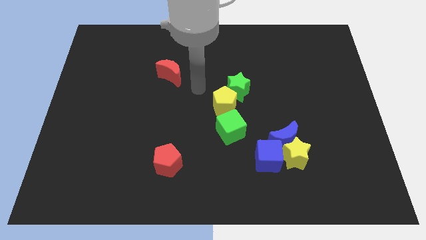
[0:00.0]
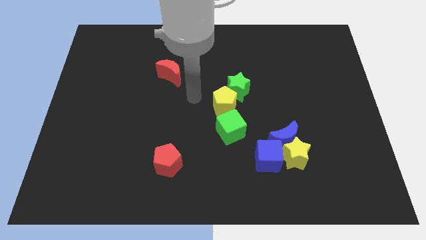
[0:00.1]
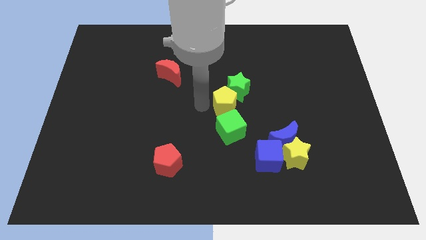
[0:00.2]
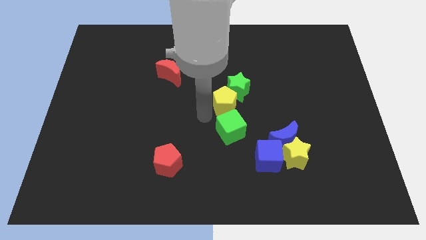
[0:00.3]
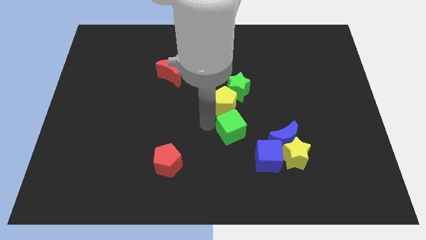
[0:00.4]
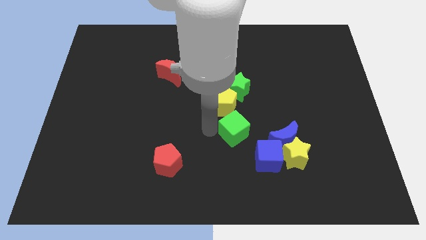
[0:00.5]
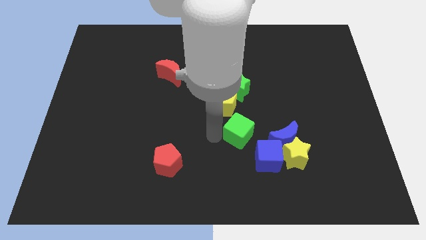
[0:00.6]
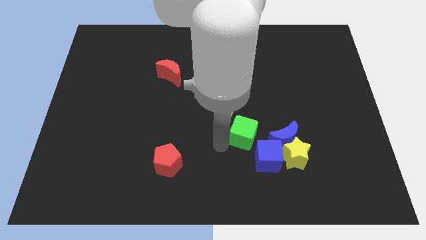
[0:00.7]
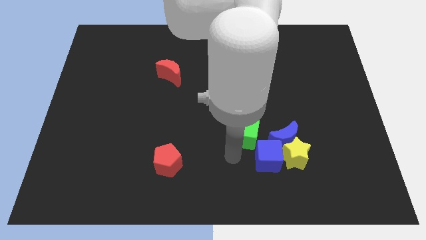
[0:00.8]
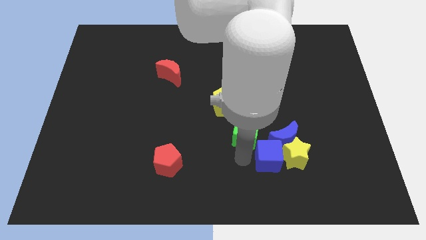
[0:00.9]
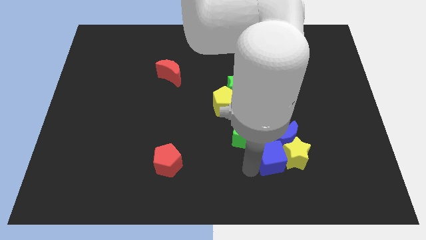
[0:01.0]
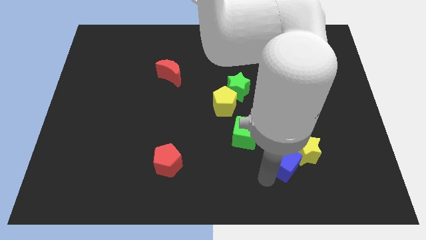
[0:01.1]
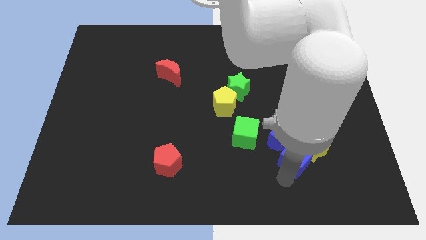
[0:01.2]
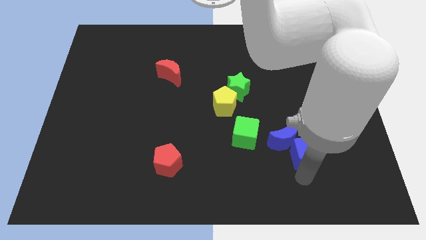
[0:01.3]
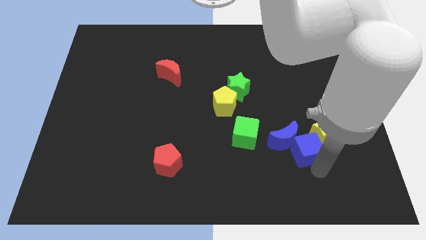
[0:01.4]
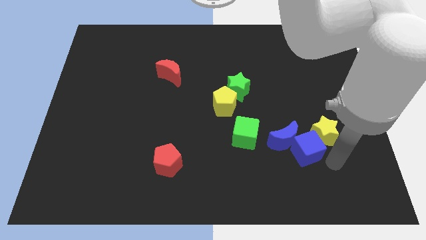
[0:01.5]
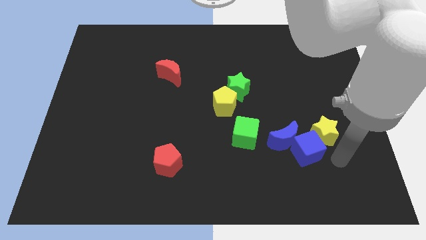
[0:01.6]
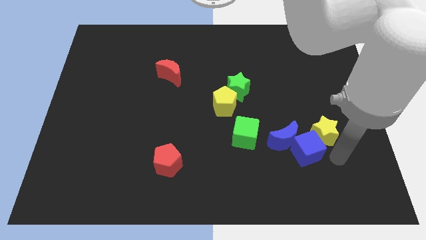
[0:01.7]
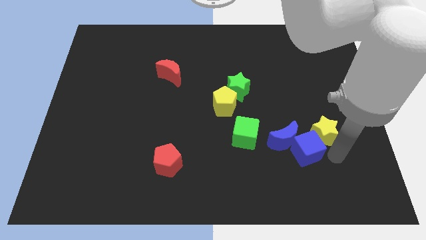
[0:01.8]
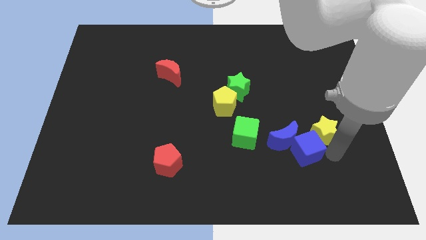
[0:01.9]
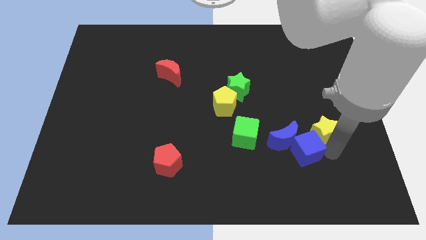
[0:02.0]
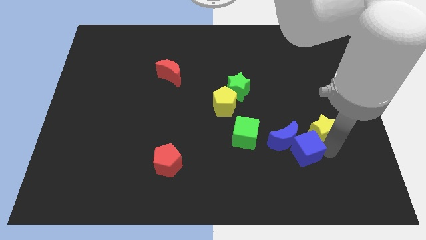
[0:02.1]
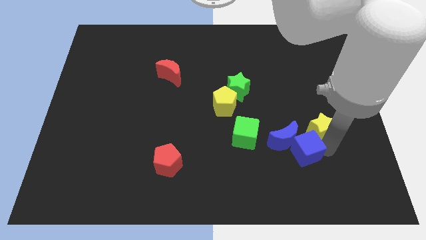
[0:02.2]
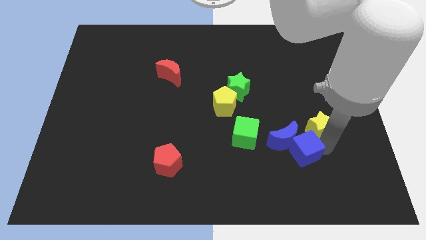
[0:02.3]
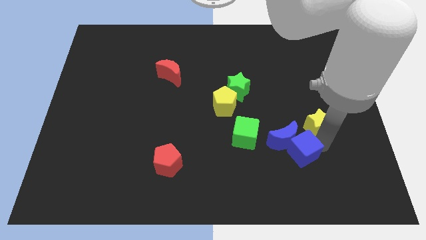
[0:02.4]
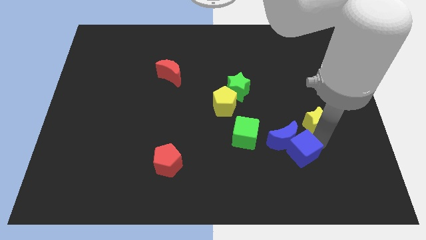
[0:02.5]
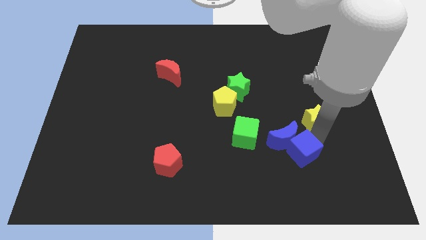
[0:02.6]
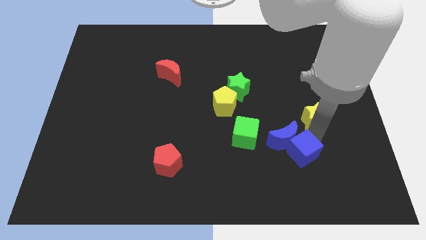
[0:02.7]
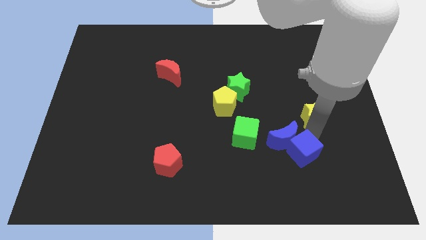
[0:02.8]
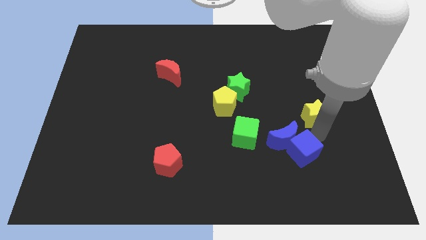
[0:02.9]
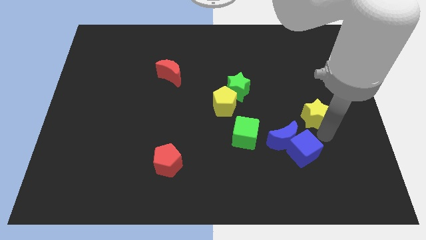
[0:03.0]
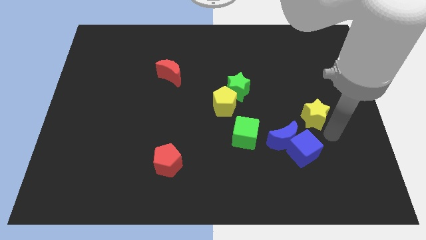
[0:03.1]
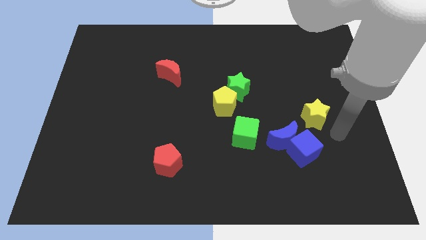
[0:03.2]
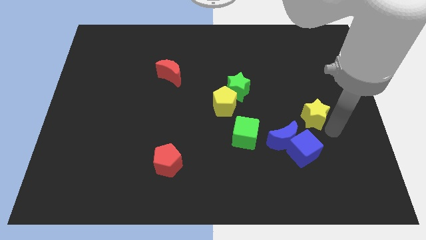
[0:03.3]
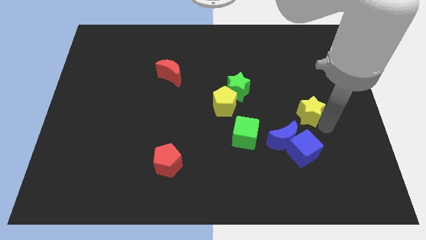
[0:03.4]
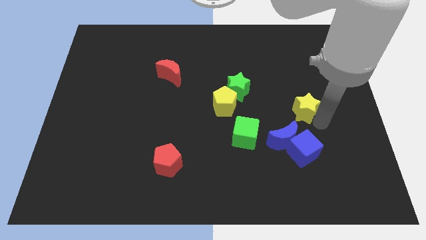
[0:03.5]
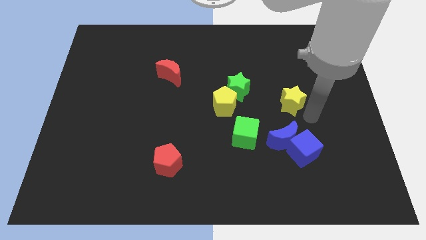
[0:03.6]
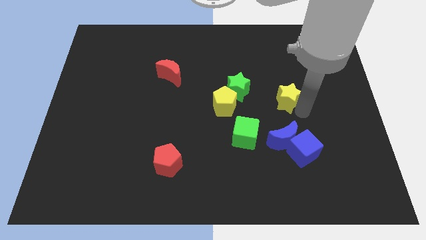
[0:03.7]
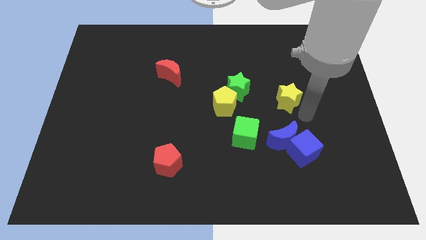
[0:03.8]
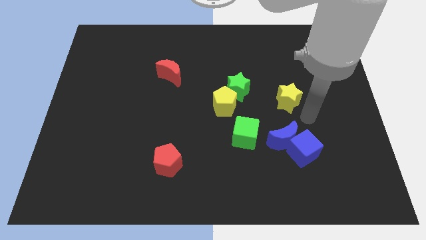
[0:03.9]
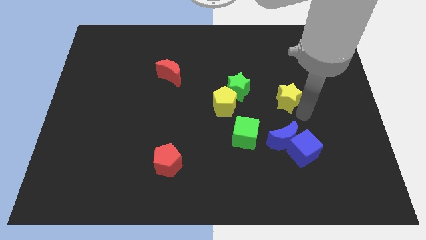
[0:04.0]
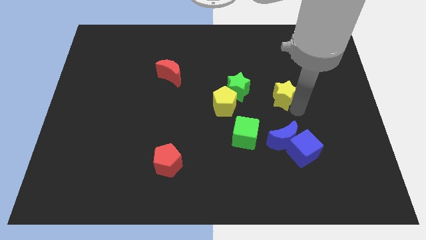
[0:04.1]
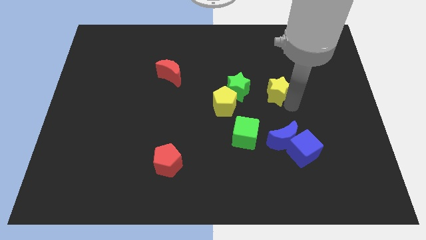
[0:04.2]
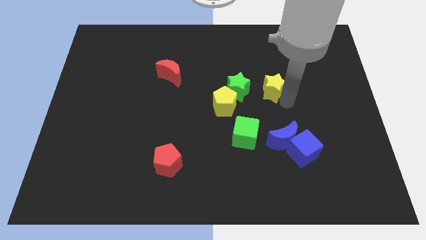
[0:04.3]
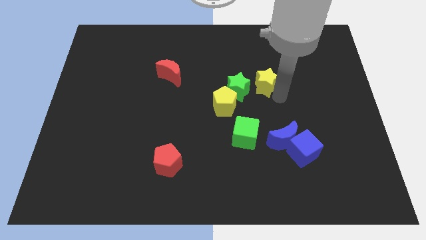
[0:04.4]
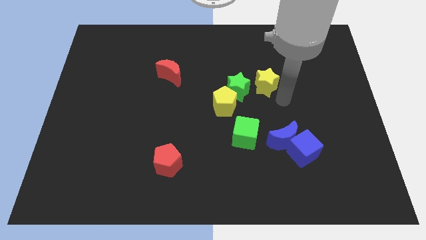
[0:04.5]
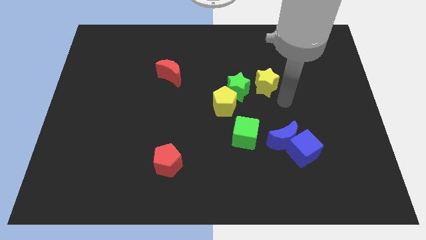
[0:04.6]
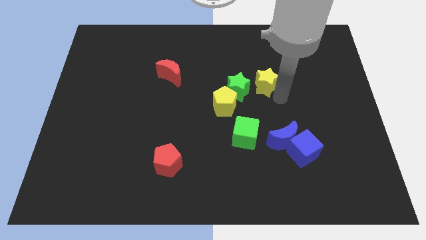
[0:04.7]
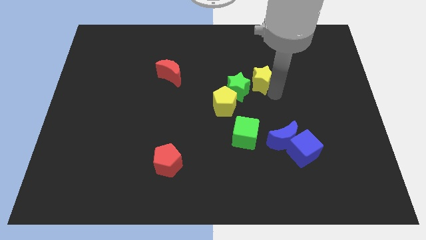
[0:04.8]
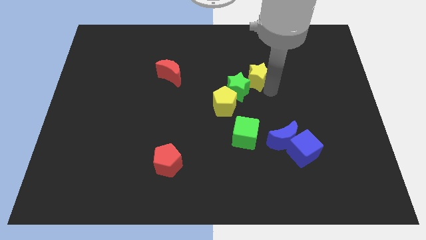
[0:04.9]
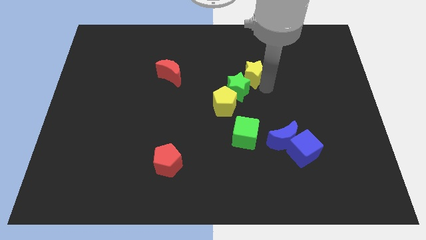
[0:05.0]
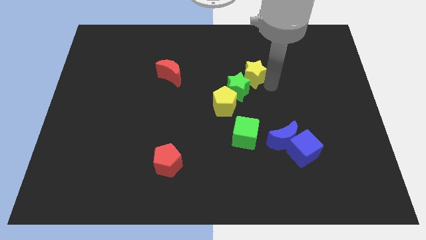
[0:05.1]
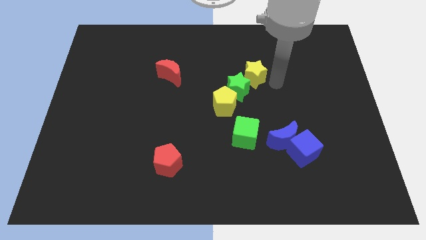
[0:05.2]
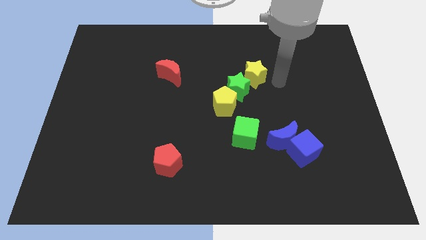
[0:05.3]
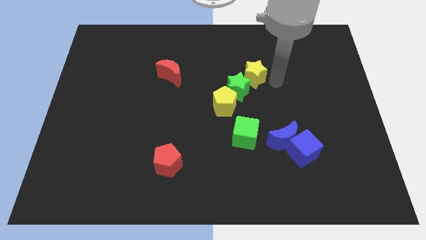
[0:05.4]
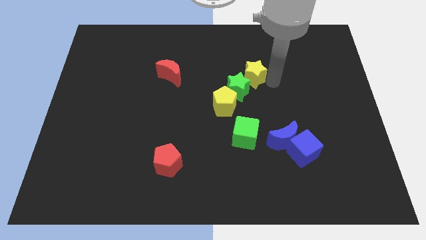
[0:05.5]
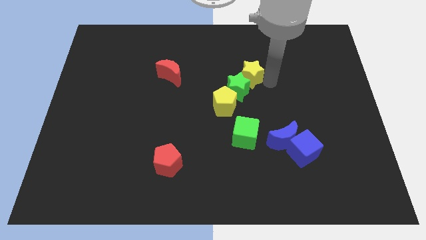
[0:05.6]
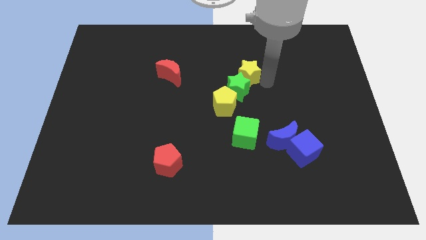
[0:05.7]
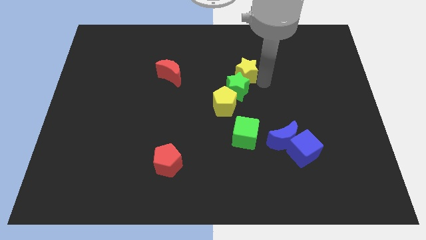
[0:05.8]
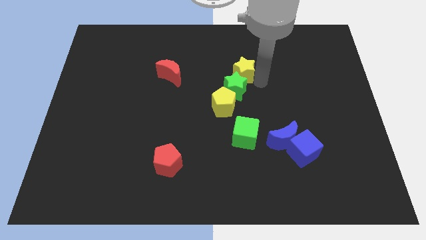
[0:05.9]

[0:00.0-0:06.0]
put the yellow star above the yellow pentagon

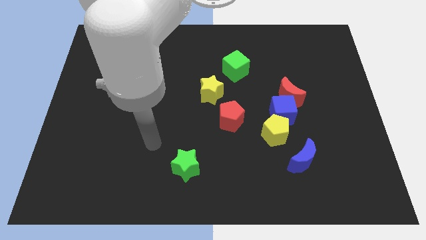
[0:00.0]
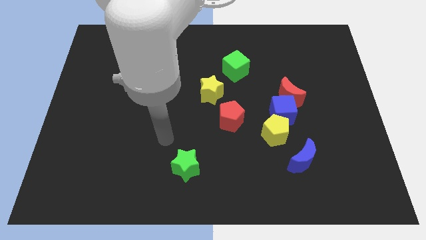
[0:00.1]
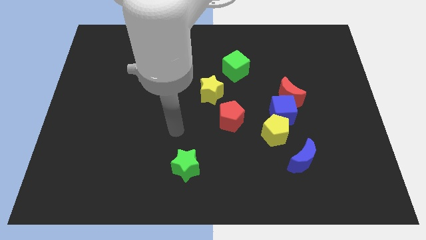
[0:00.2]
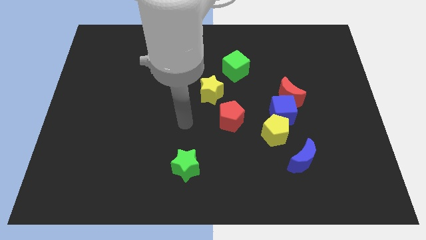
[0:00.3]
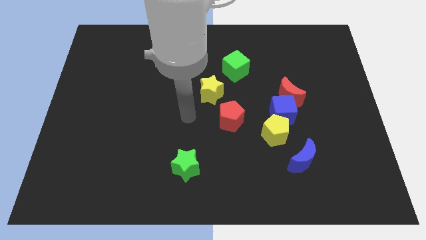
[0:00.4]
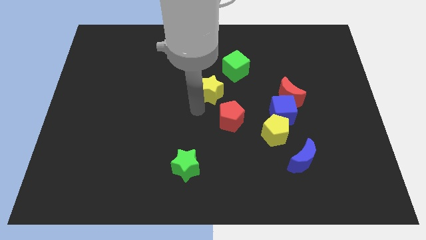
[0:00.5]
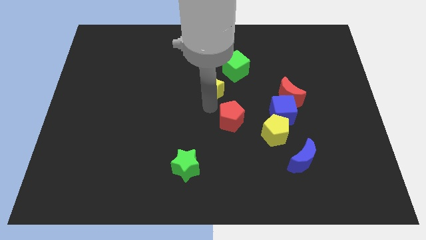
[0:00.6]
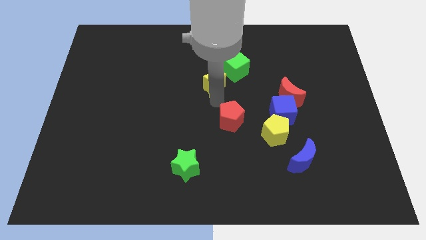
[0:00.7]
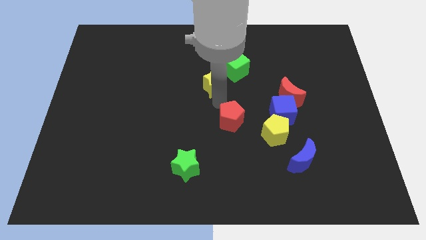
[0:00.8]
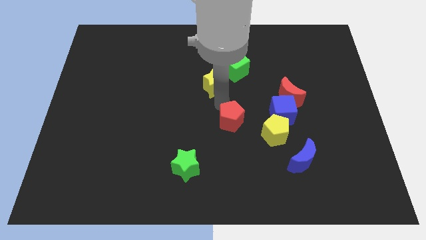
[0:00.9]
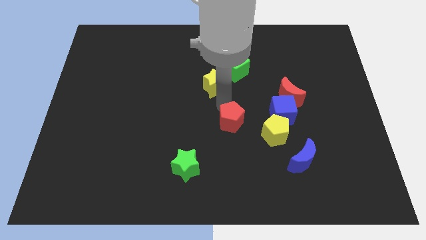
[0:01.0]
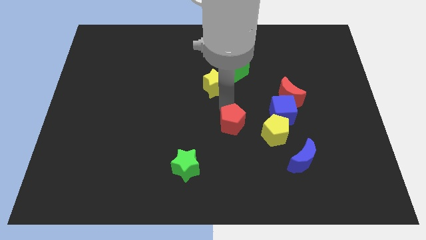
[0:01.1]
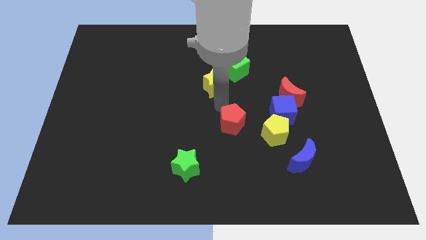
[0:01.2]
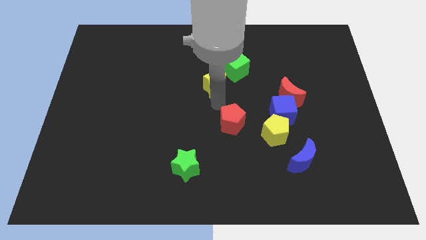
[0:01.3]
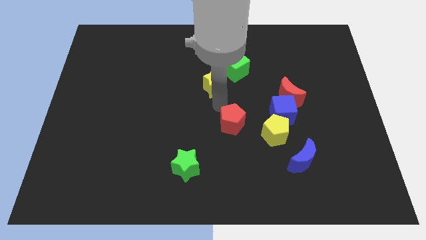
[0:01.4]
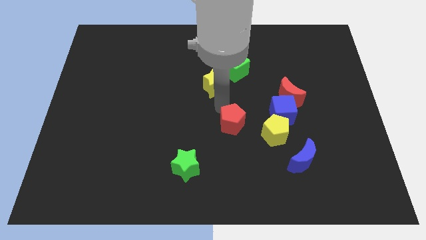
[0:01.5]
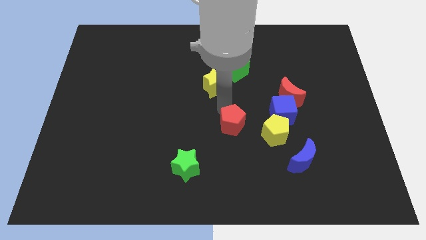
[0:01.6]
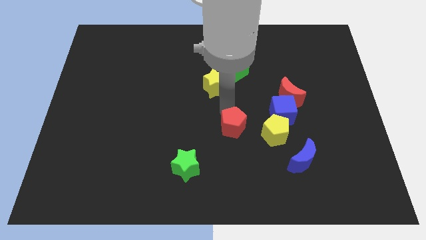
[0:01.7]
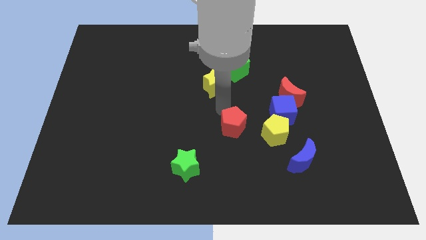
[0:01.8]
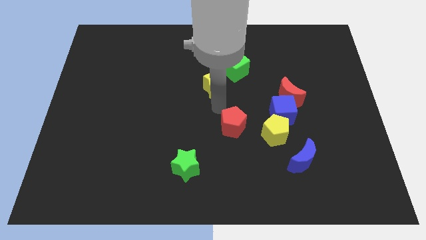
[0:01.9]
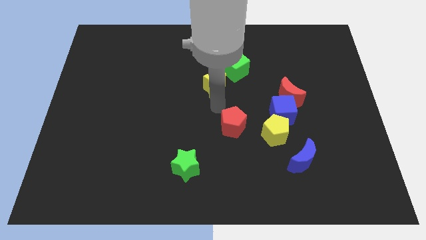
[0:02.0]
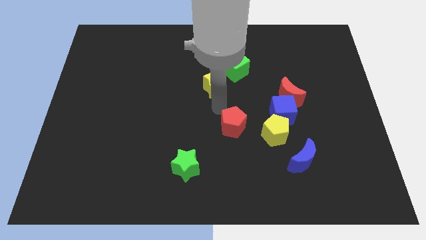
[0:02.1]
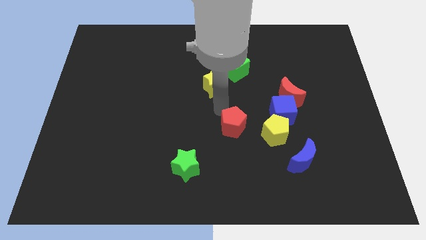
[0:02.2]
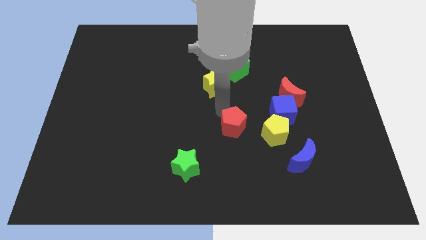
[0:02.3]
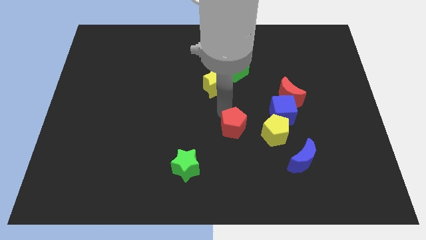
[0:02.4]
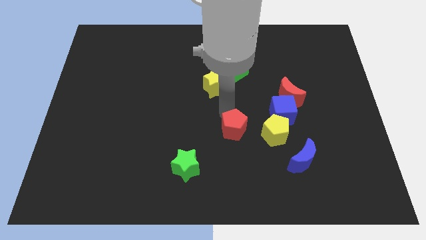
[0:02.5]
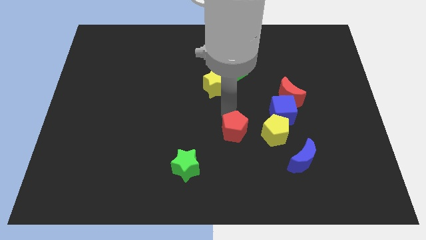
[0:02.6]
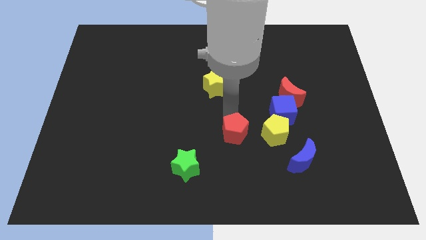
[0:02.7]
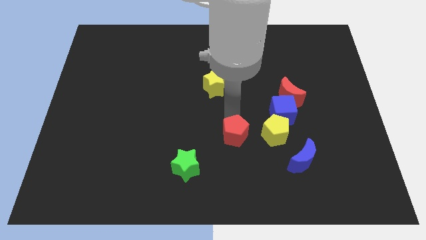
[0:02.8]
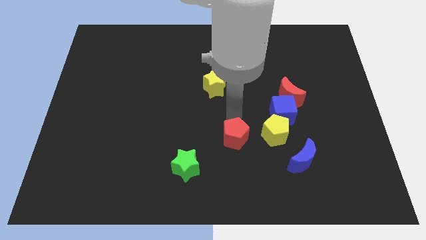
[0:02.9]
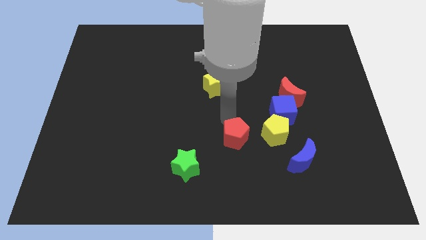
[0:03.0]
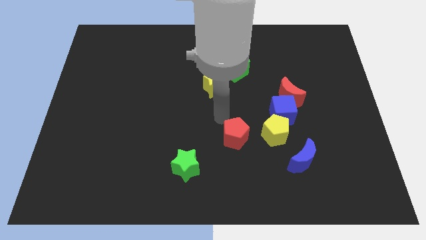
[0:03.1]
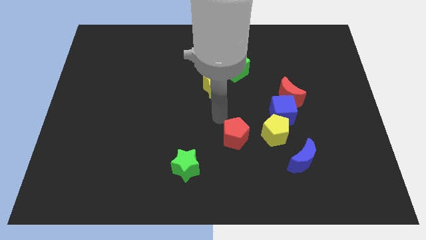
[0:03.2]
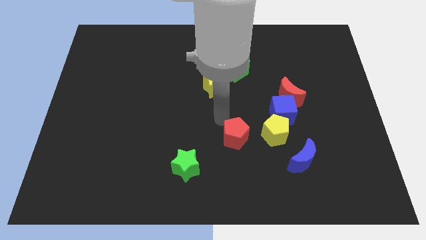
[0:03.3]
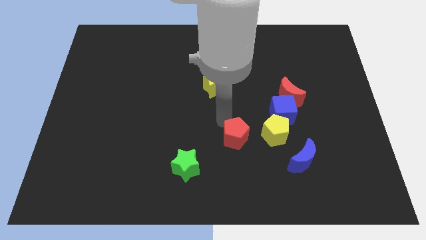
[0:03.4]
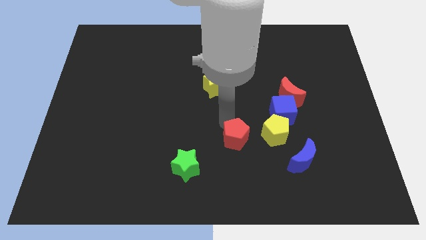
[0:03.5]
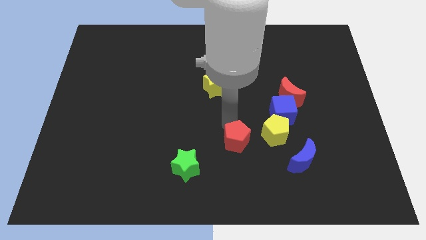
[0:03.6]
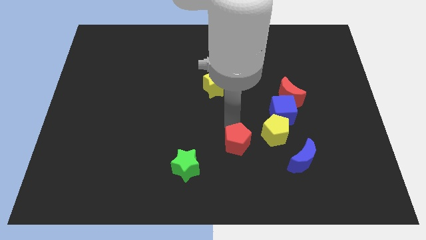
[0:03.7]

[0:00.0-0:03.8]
push the red pentagon to the left side of the blue moon
